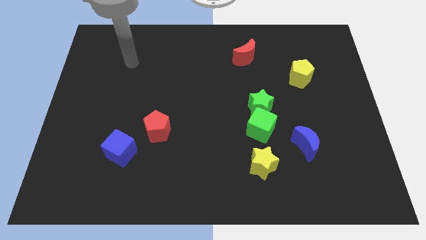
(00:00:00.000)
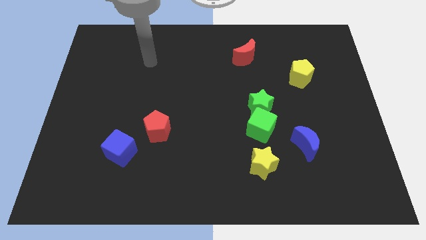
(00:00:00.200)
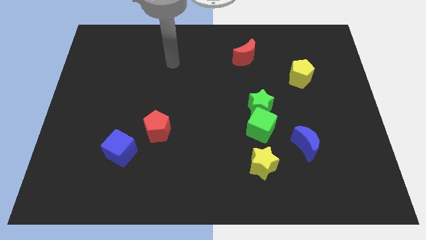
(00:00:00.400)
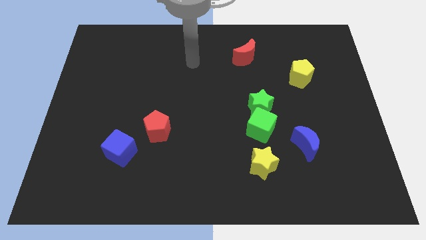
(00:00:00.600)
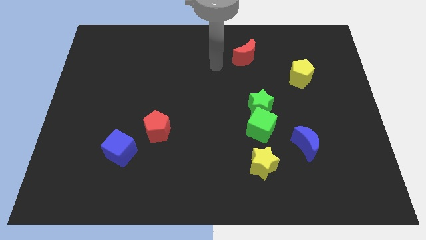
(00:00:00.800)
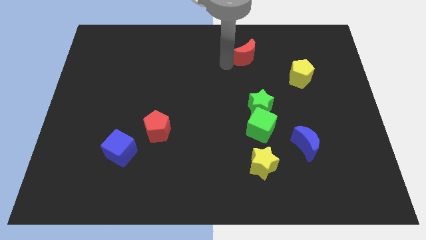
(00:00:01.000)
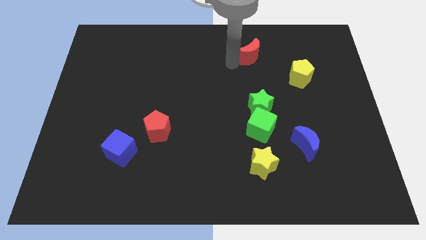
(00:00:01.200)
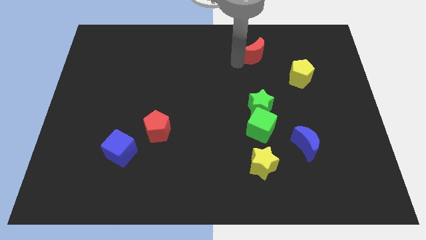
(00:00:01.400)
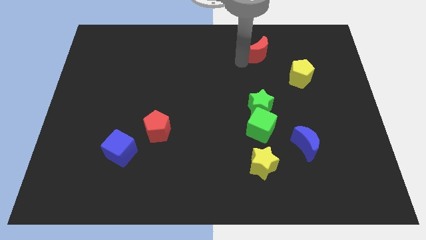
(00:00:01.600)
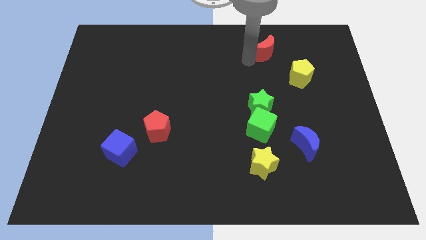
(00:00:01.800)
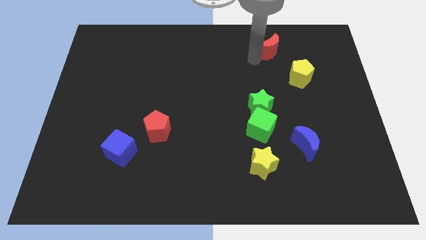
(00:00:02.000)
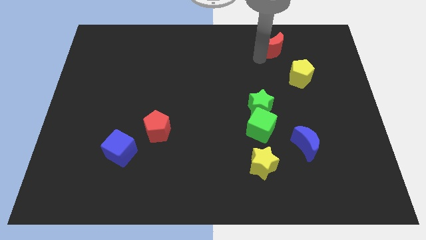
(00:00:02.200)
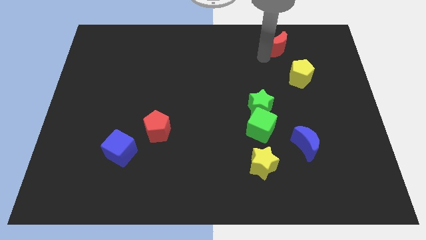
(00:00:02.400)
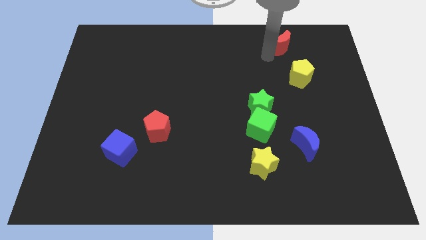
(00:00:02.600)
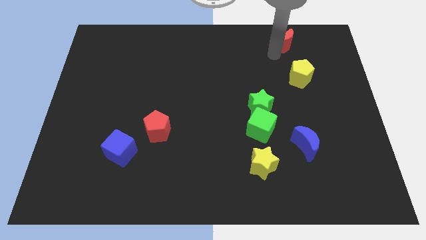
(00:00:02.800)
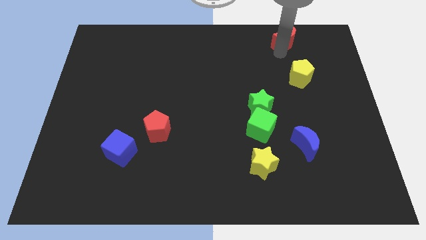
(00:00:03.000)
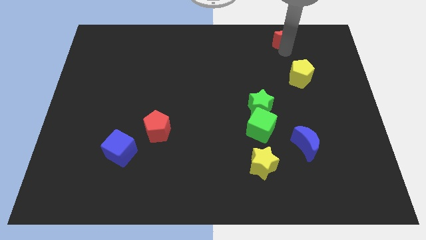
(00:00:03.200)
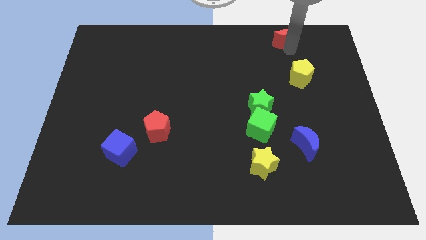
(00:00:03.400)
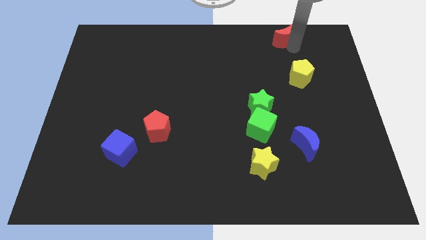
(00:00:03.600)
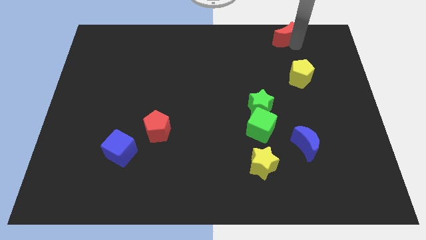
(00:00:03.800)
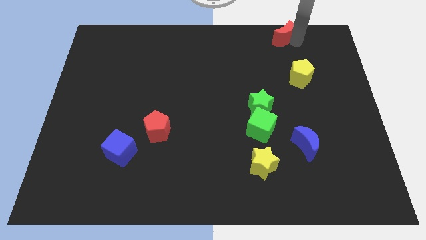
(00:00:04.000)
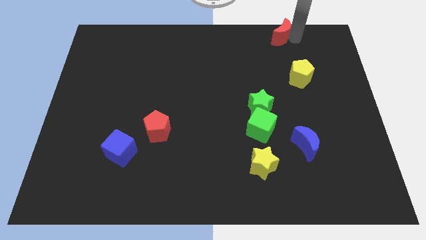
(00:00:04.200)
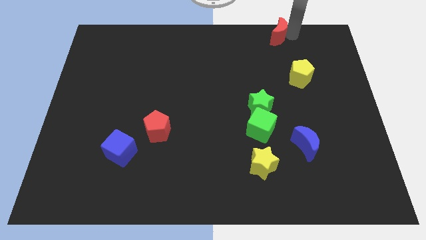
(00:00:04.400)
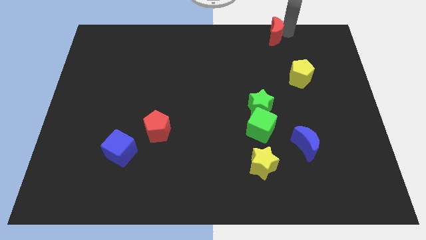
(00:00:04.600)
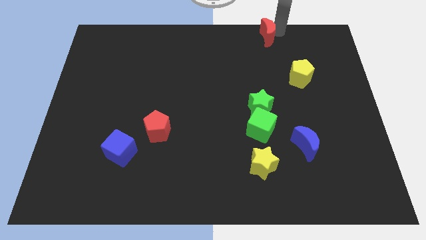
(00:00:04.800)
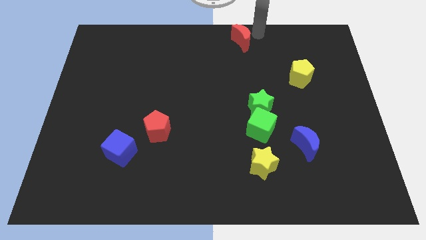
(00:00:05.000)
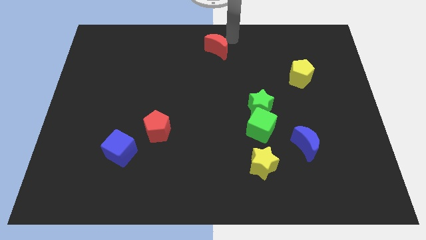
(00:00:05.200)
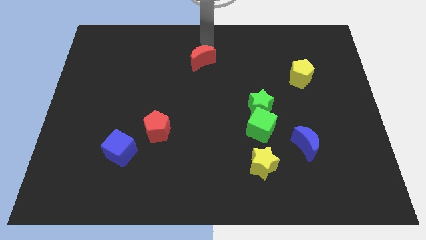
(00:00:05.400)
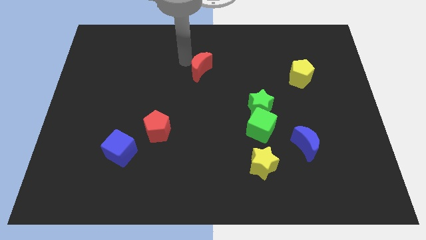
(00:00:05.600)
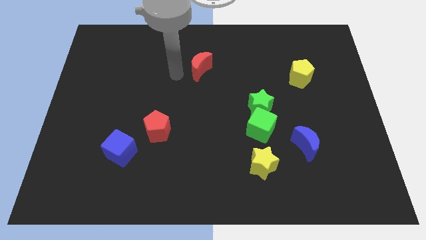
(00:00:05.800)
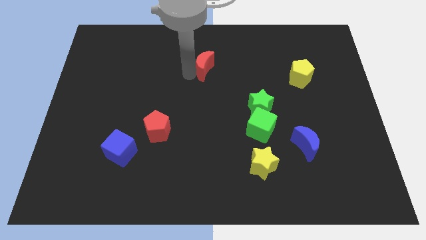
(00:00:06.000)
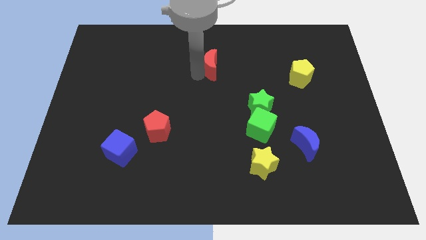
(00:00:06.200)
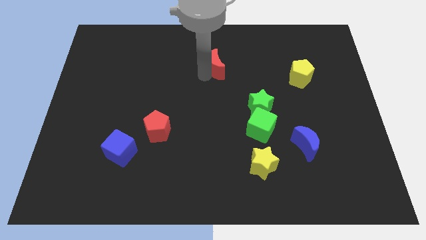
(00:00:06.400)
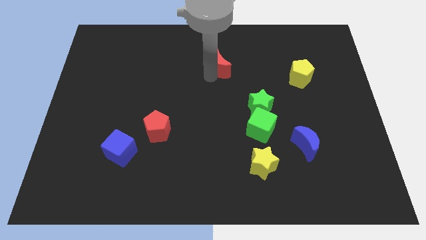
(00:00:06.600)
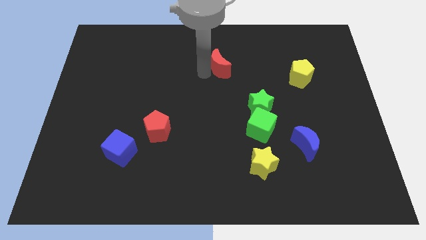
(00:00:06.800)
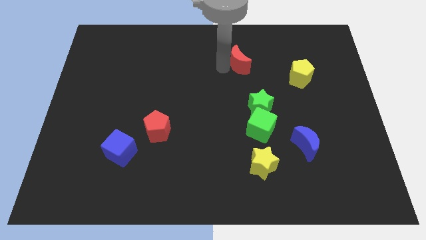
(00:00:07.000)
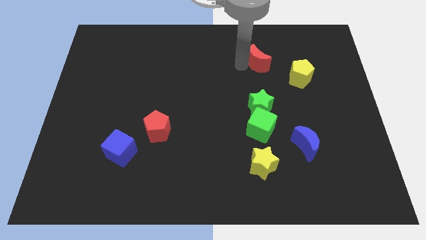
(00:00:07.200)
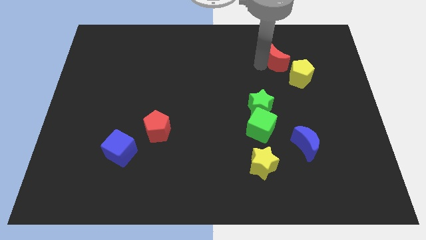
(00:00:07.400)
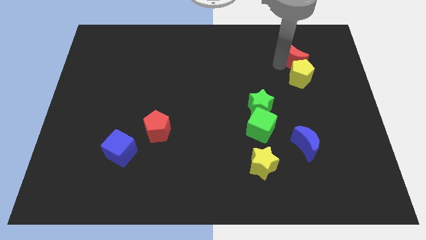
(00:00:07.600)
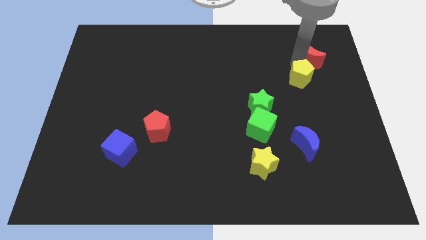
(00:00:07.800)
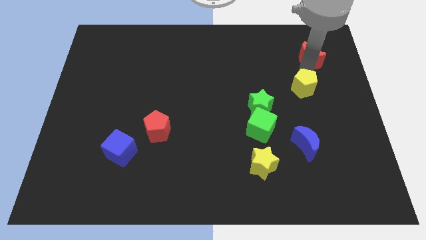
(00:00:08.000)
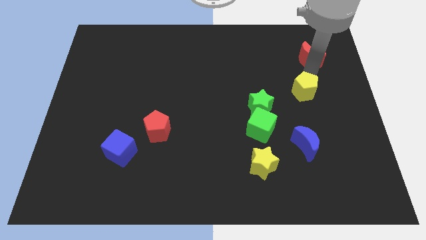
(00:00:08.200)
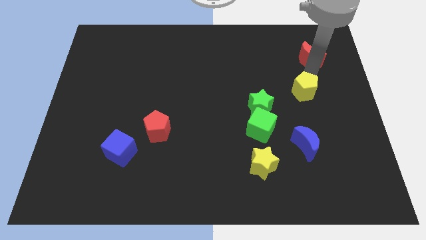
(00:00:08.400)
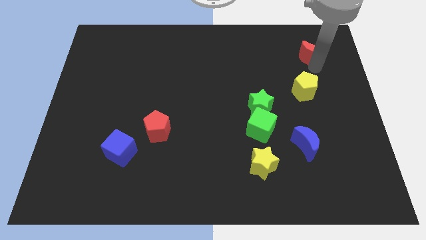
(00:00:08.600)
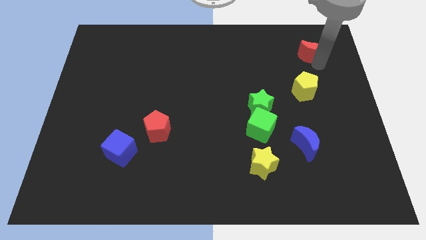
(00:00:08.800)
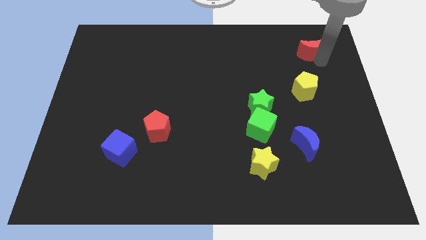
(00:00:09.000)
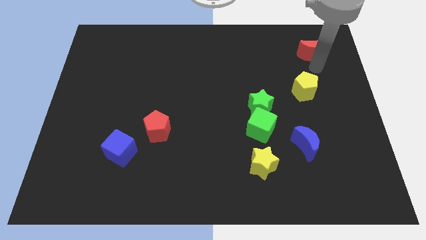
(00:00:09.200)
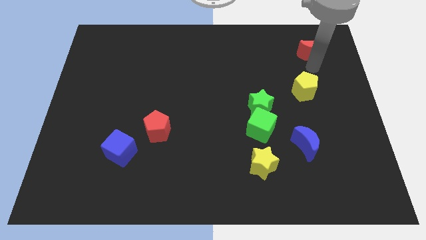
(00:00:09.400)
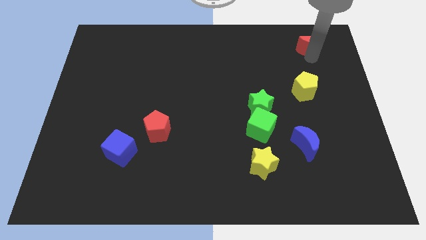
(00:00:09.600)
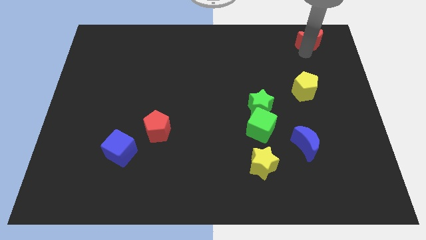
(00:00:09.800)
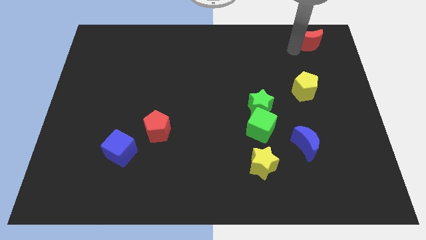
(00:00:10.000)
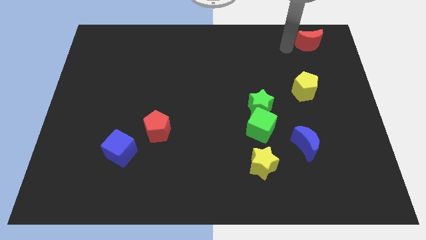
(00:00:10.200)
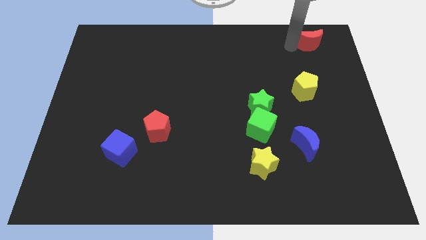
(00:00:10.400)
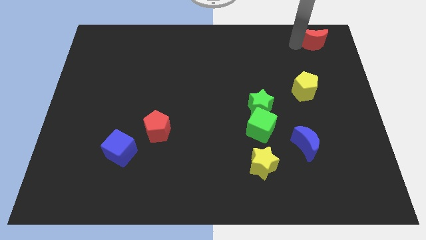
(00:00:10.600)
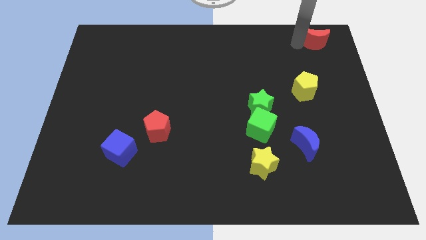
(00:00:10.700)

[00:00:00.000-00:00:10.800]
move the red moon to the top right

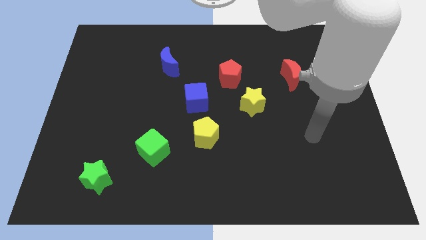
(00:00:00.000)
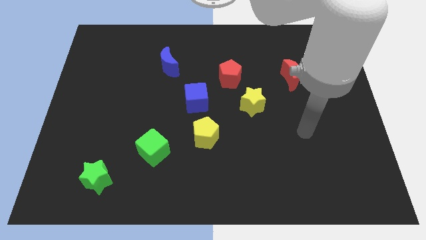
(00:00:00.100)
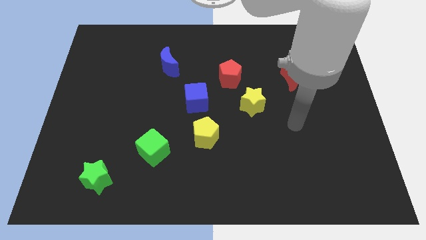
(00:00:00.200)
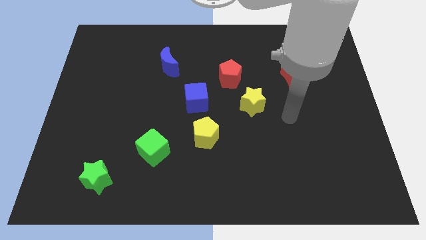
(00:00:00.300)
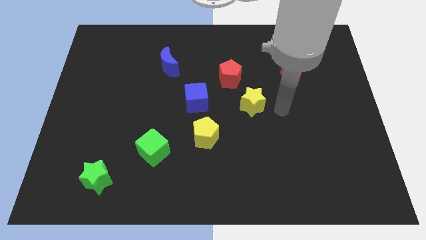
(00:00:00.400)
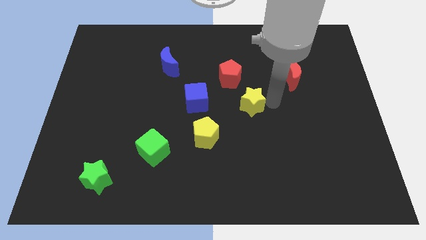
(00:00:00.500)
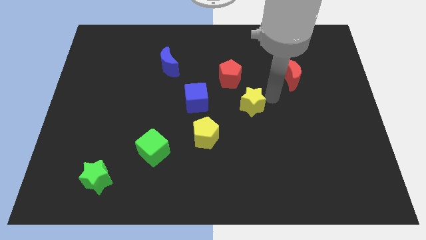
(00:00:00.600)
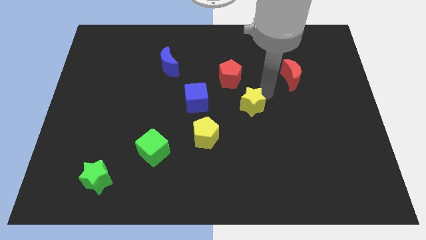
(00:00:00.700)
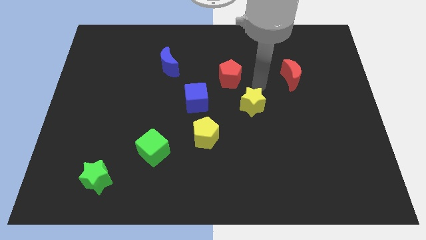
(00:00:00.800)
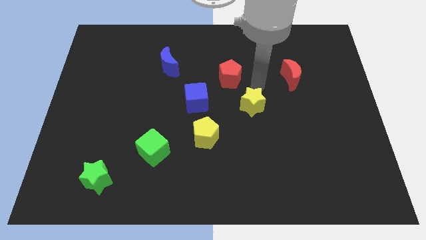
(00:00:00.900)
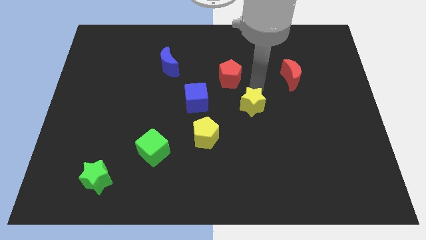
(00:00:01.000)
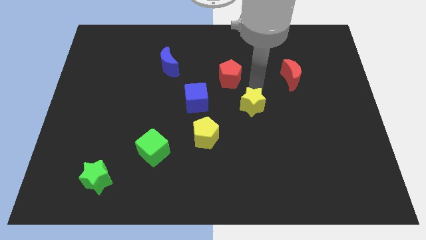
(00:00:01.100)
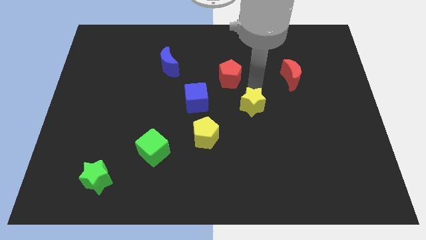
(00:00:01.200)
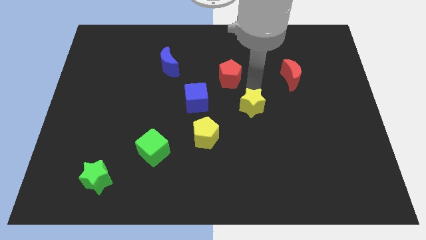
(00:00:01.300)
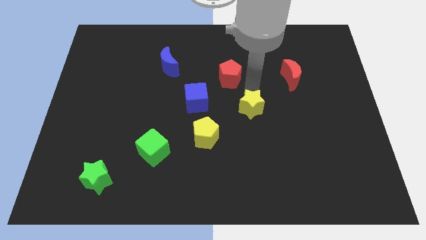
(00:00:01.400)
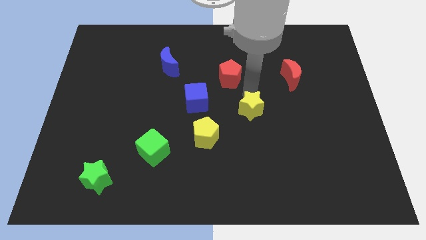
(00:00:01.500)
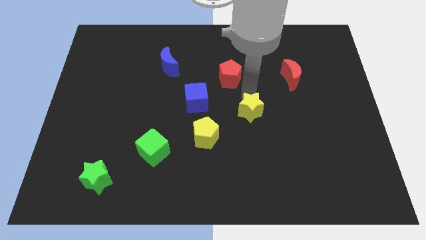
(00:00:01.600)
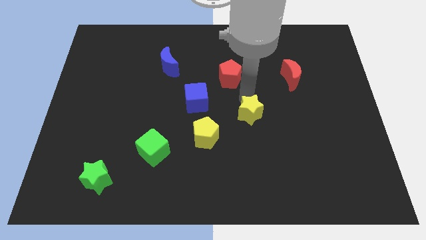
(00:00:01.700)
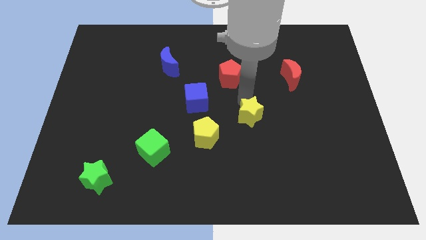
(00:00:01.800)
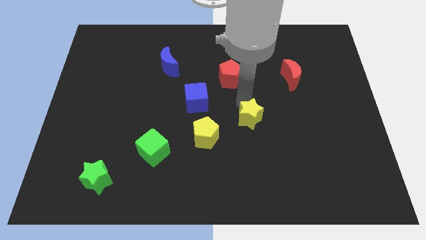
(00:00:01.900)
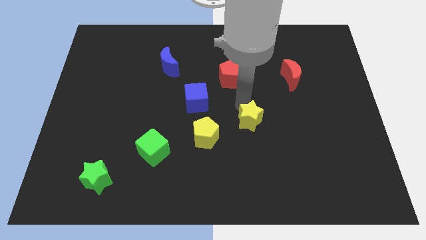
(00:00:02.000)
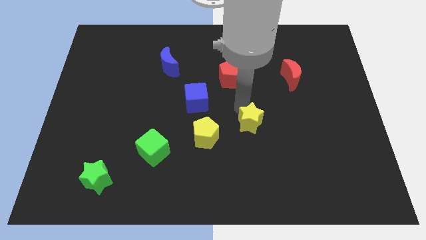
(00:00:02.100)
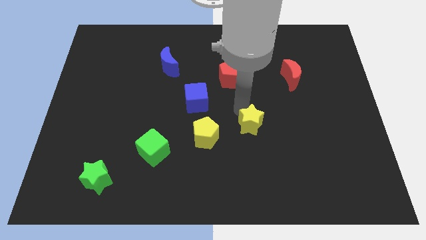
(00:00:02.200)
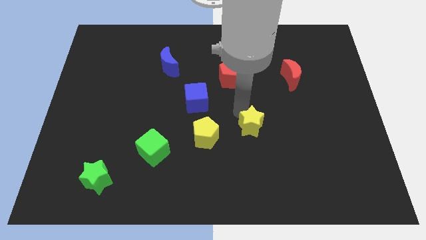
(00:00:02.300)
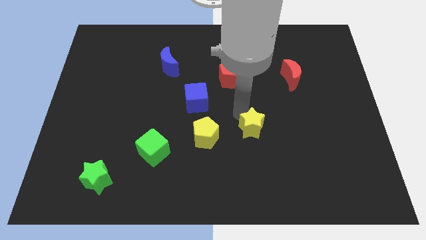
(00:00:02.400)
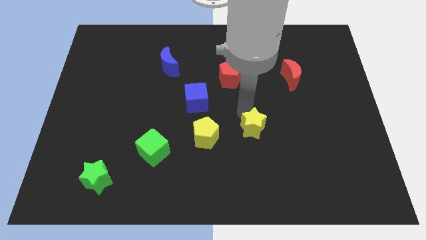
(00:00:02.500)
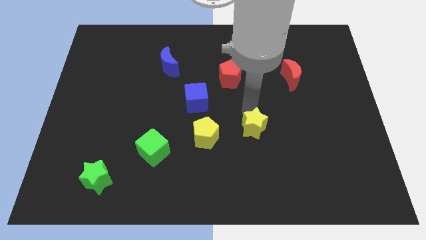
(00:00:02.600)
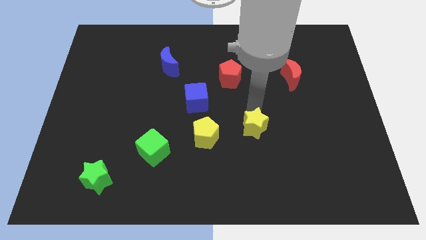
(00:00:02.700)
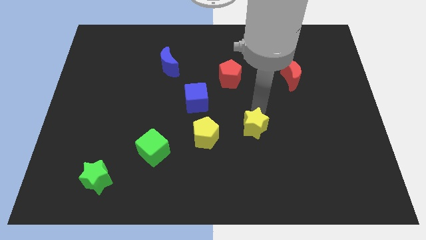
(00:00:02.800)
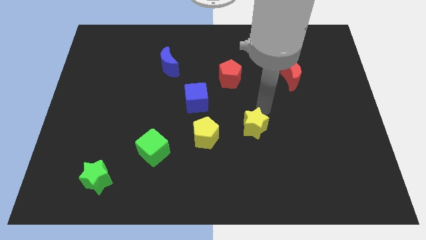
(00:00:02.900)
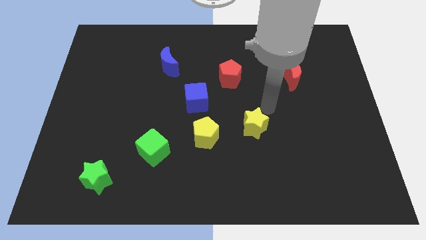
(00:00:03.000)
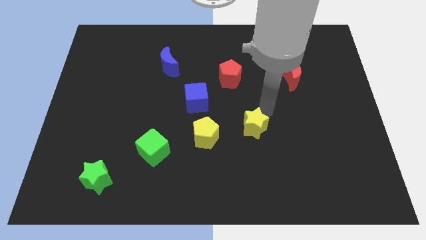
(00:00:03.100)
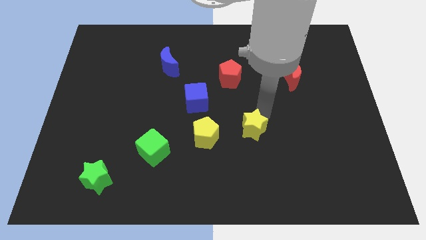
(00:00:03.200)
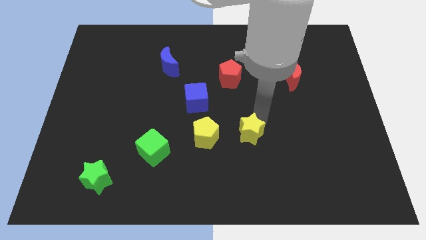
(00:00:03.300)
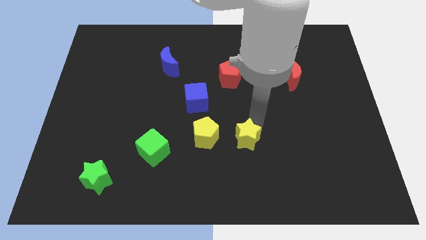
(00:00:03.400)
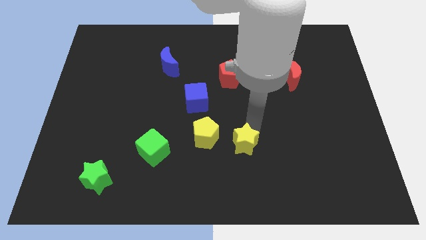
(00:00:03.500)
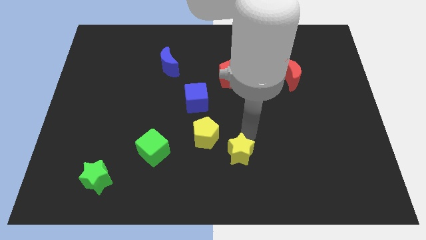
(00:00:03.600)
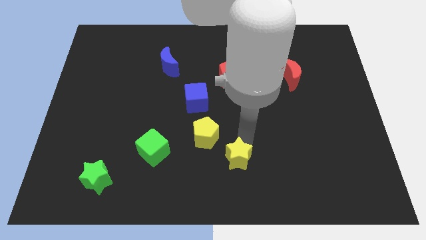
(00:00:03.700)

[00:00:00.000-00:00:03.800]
move the yellow star to the bottom side
